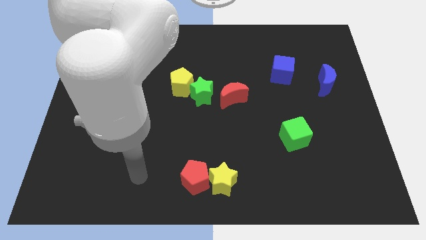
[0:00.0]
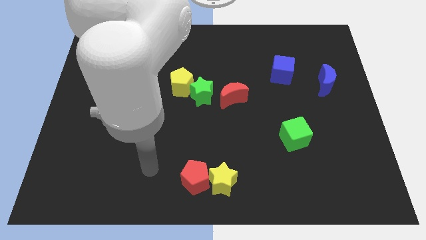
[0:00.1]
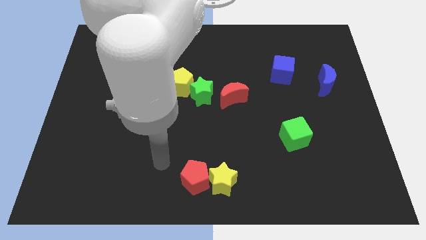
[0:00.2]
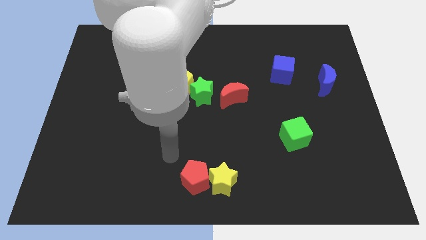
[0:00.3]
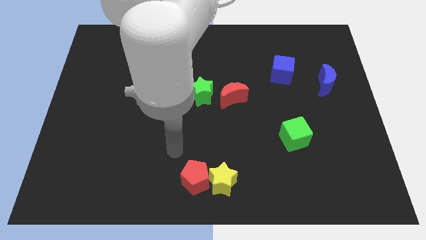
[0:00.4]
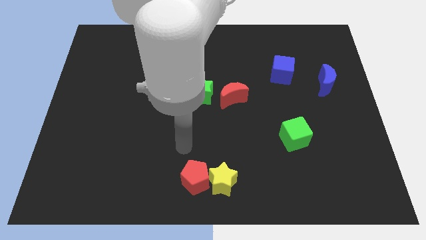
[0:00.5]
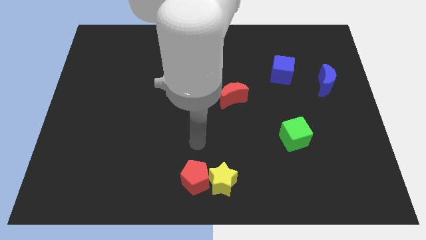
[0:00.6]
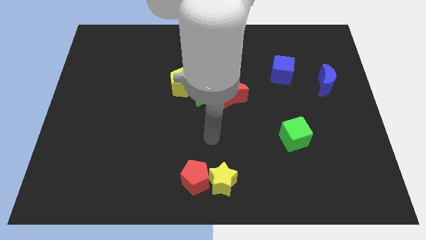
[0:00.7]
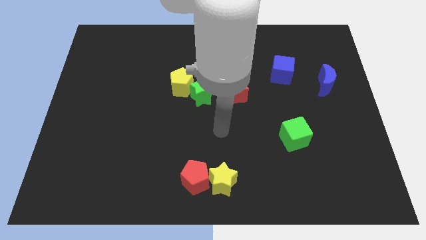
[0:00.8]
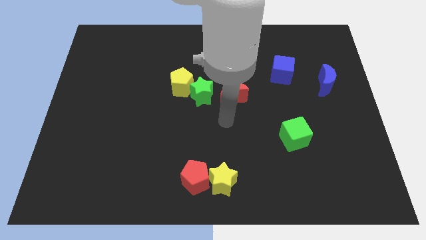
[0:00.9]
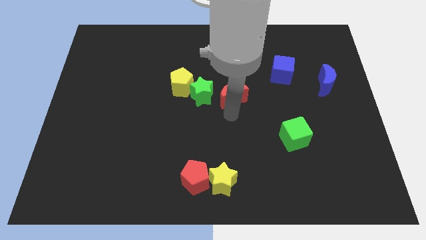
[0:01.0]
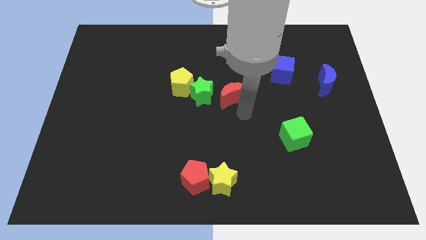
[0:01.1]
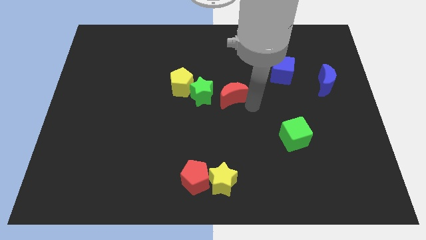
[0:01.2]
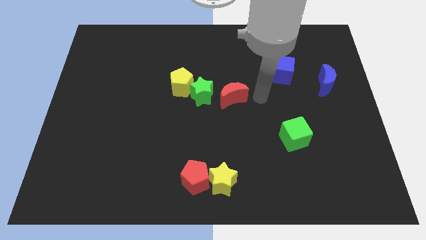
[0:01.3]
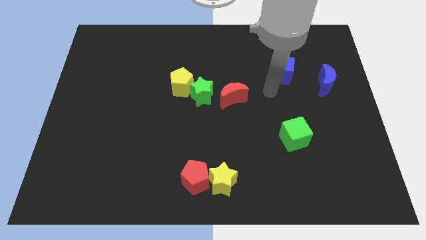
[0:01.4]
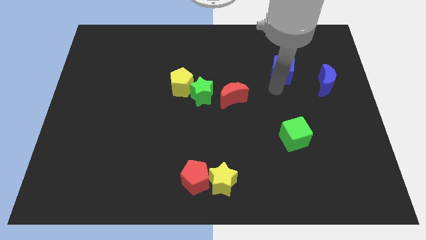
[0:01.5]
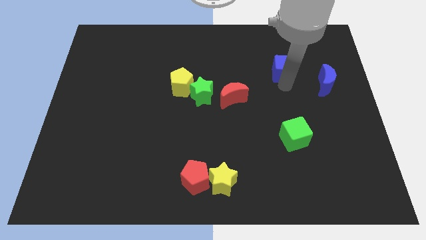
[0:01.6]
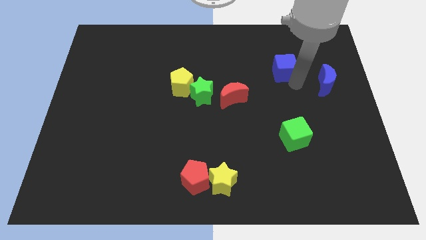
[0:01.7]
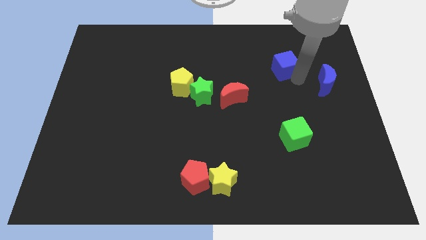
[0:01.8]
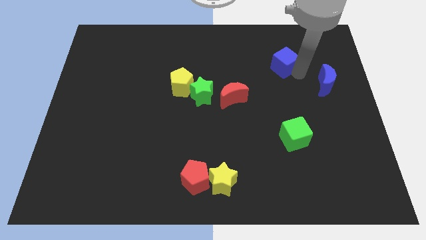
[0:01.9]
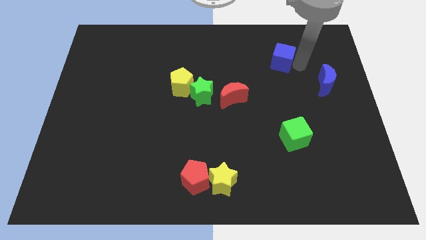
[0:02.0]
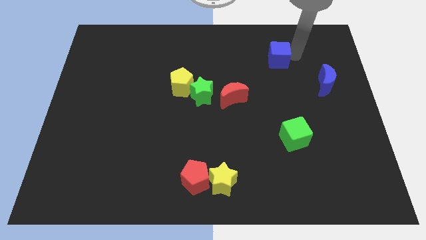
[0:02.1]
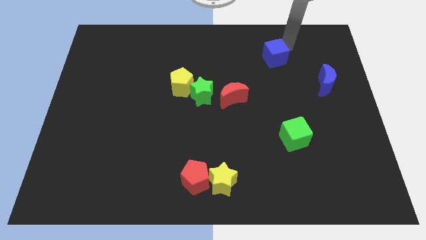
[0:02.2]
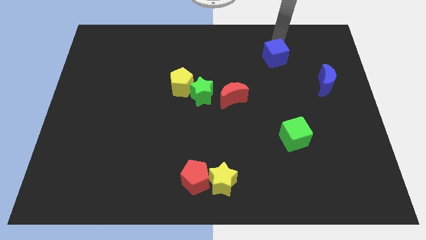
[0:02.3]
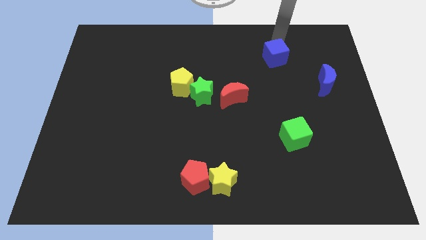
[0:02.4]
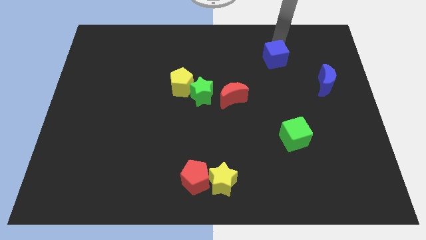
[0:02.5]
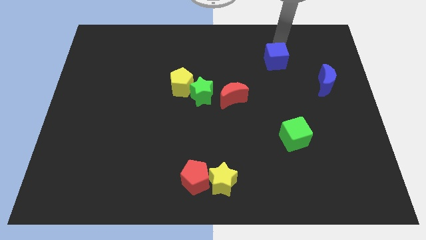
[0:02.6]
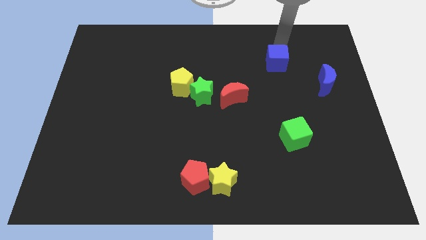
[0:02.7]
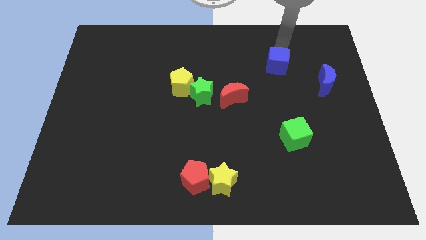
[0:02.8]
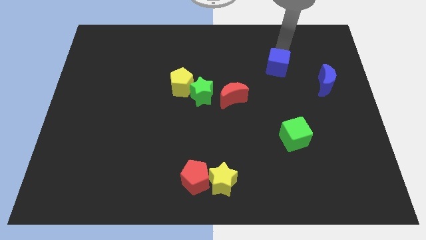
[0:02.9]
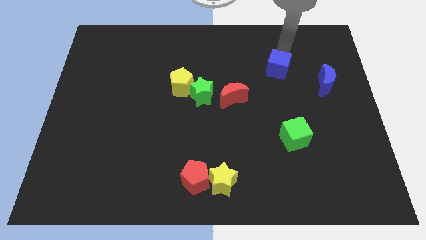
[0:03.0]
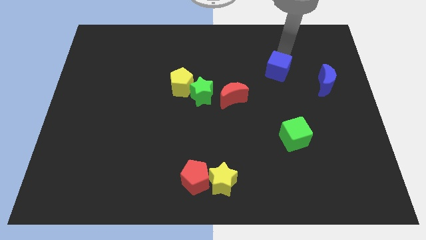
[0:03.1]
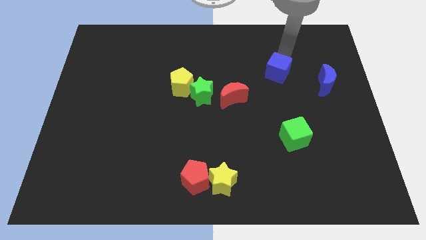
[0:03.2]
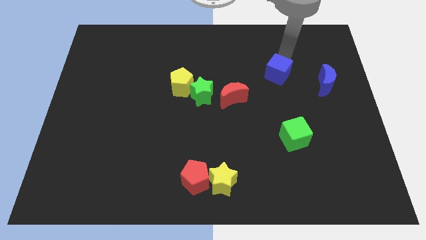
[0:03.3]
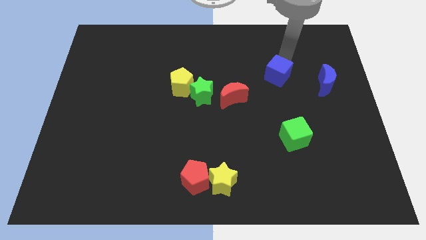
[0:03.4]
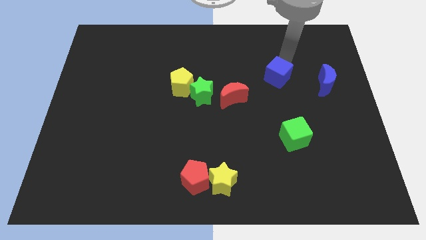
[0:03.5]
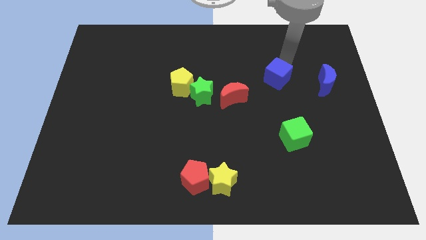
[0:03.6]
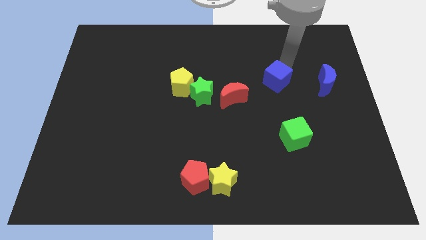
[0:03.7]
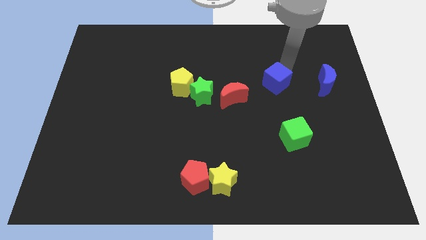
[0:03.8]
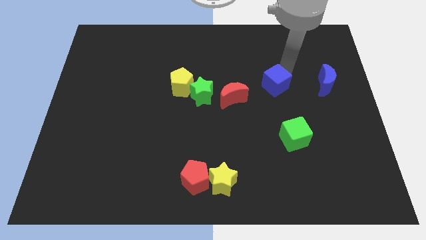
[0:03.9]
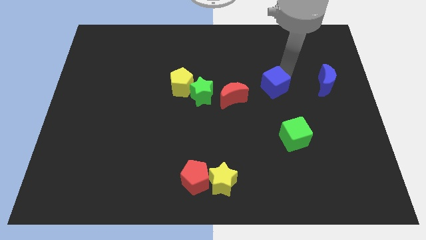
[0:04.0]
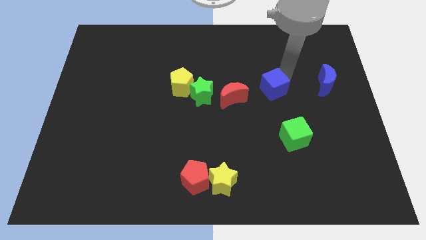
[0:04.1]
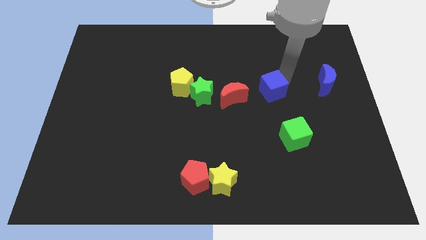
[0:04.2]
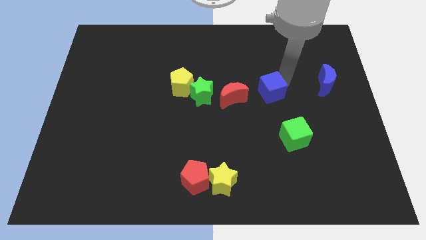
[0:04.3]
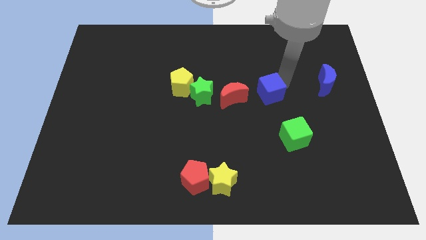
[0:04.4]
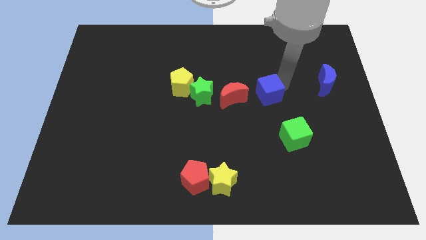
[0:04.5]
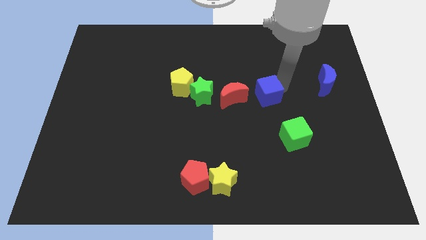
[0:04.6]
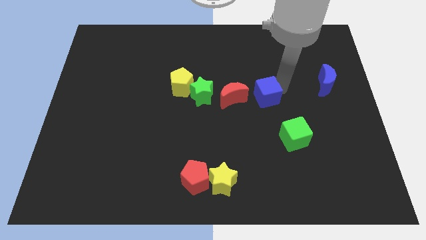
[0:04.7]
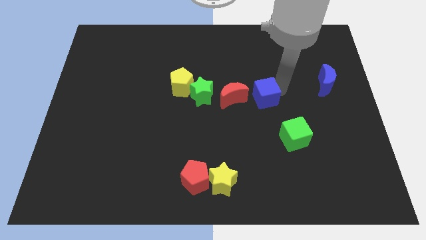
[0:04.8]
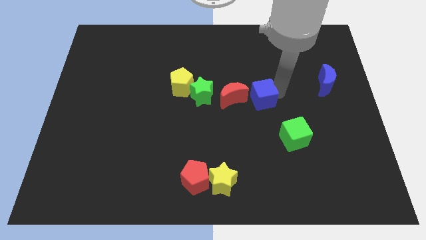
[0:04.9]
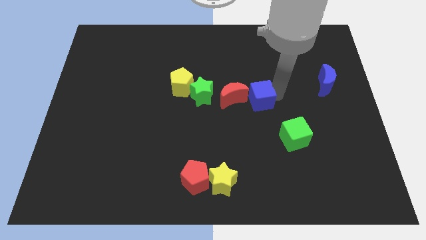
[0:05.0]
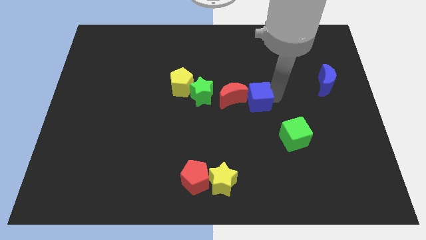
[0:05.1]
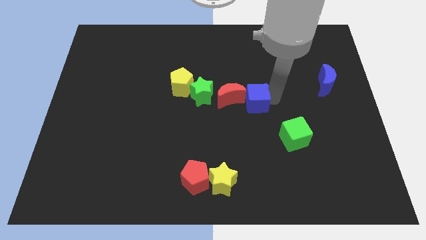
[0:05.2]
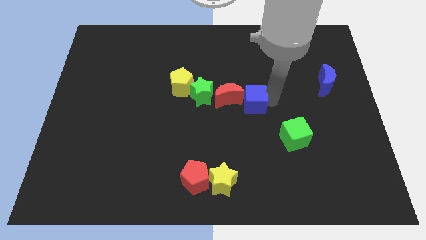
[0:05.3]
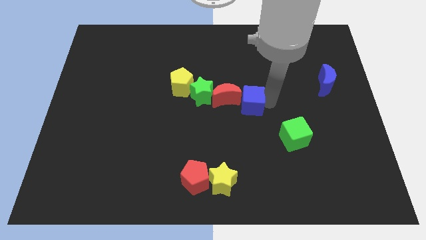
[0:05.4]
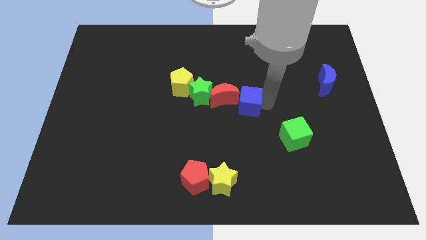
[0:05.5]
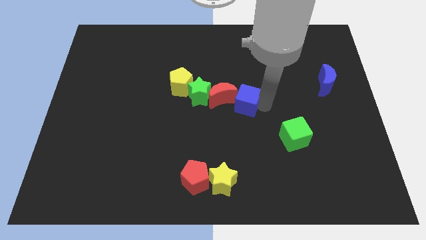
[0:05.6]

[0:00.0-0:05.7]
put the blue cube to the red moon

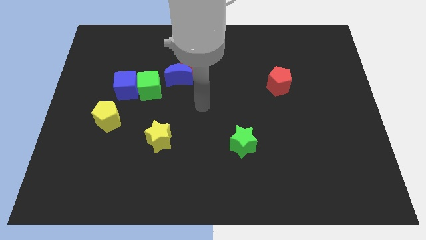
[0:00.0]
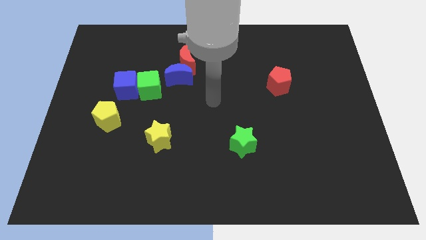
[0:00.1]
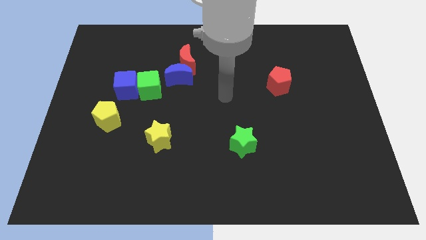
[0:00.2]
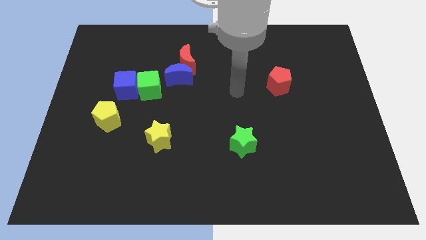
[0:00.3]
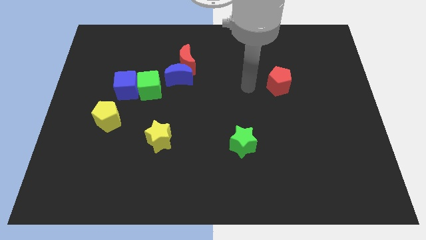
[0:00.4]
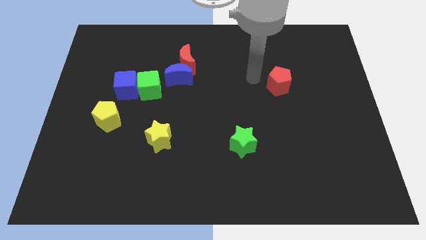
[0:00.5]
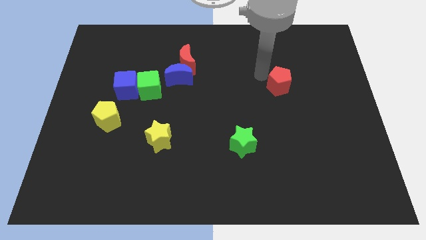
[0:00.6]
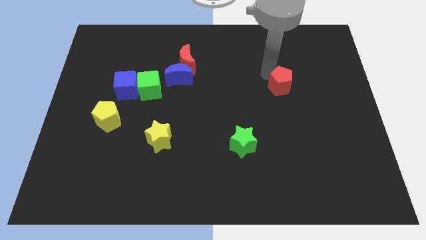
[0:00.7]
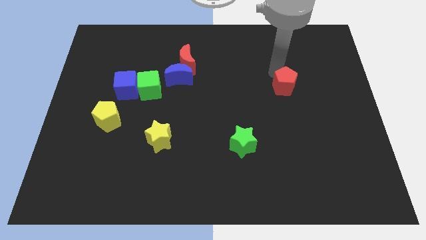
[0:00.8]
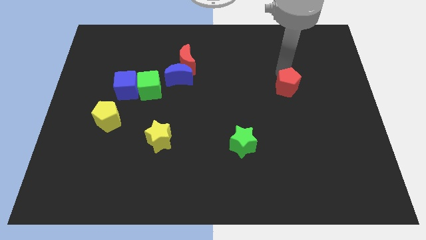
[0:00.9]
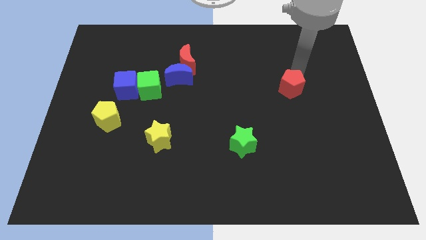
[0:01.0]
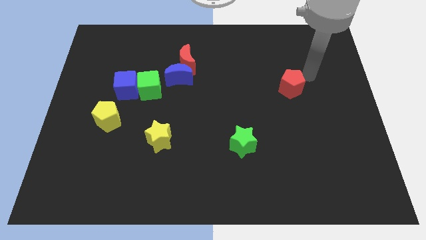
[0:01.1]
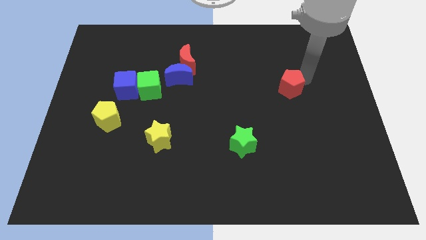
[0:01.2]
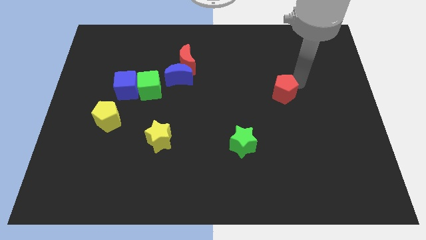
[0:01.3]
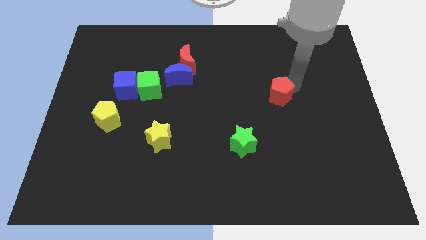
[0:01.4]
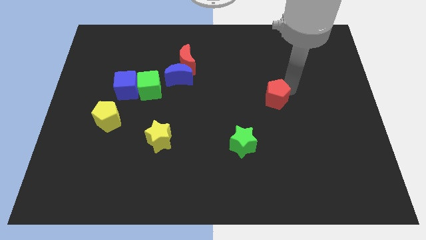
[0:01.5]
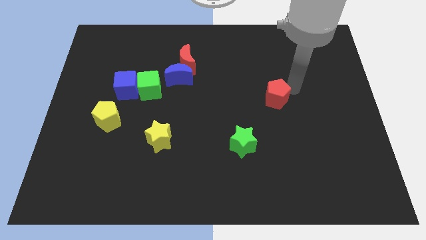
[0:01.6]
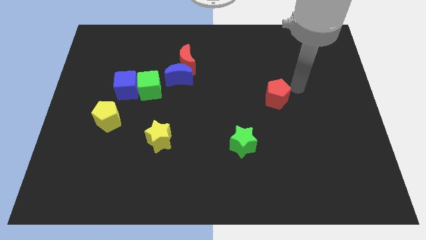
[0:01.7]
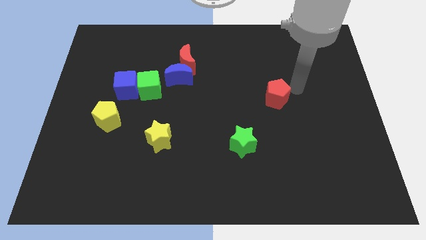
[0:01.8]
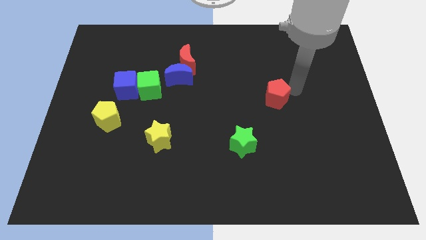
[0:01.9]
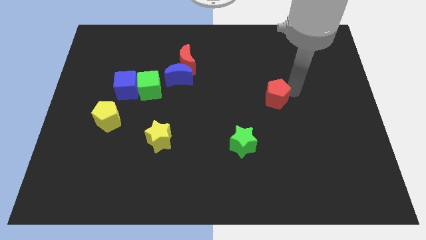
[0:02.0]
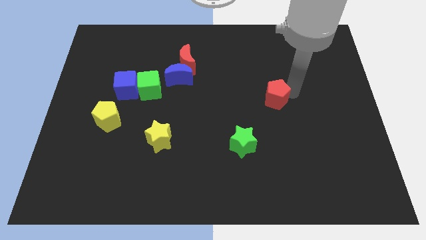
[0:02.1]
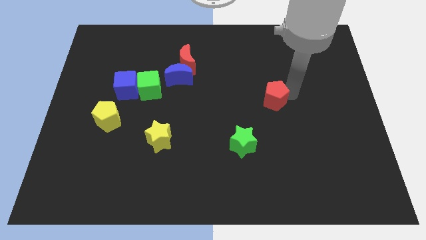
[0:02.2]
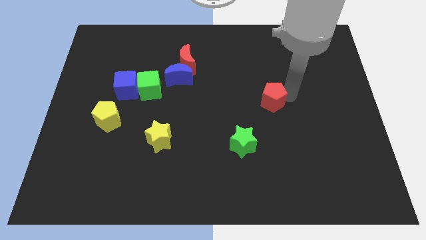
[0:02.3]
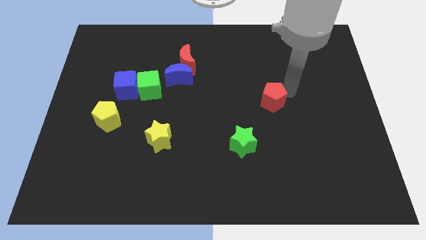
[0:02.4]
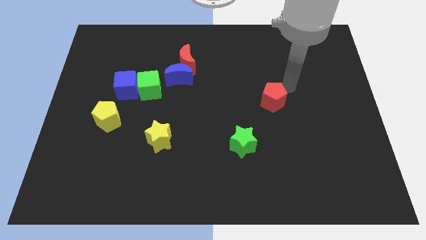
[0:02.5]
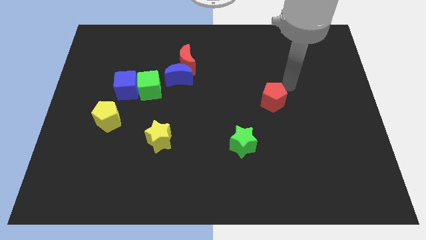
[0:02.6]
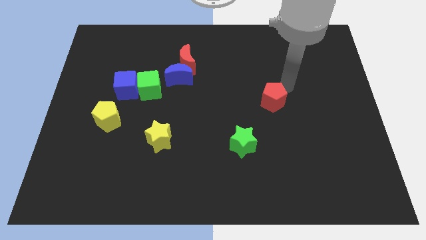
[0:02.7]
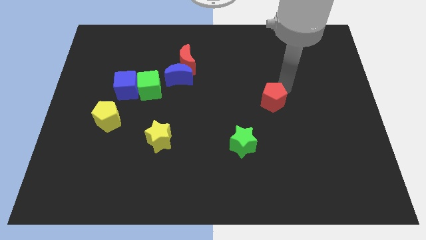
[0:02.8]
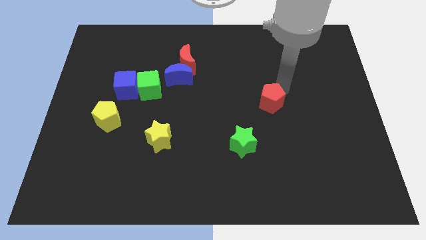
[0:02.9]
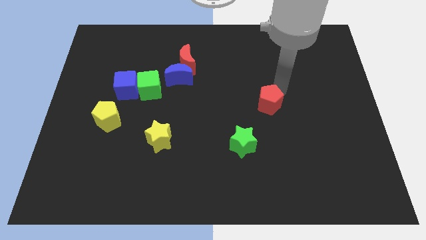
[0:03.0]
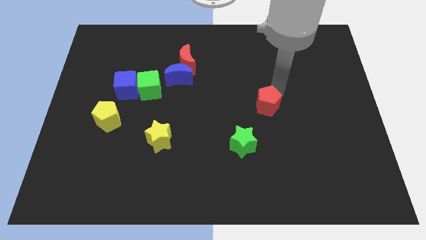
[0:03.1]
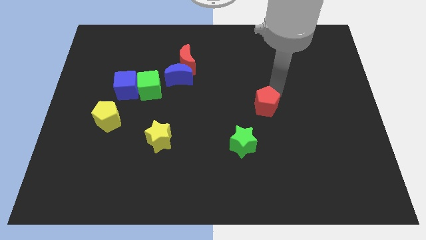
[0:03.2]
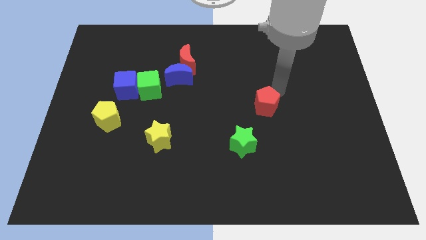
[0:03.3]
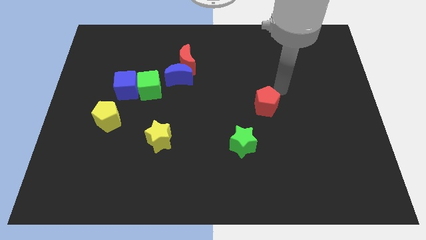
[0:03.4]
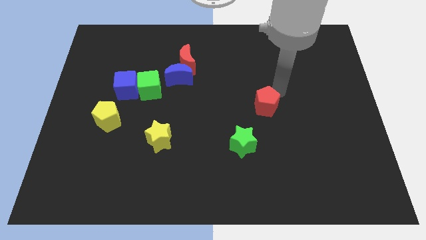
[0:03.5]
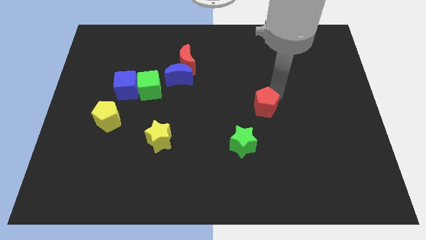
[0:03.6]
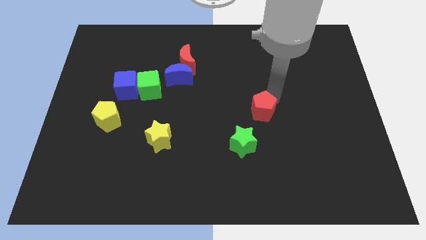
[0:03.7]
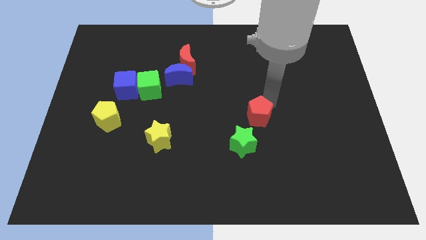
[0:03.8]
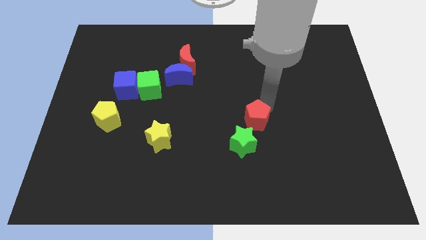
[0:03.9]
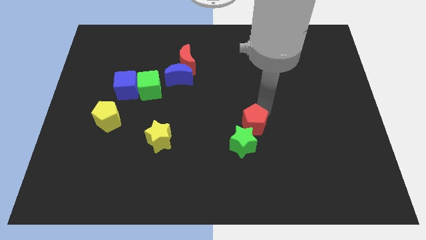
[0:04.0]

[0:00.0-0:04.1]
slide the red pentagon close to the green star
